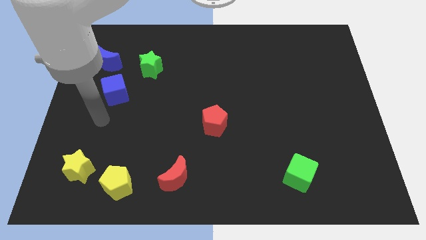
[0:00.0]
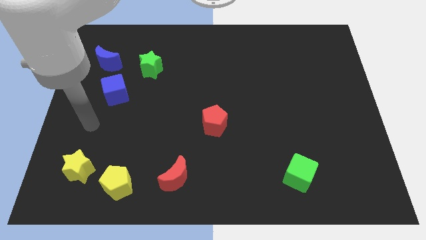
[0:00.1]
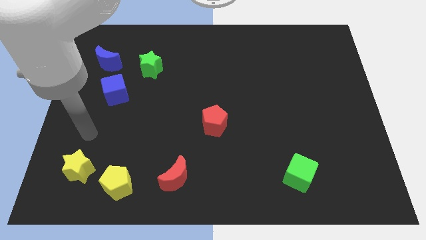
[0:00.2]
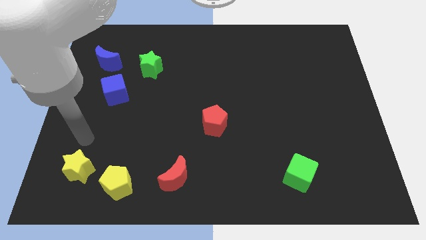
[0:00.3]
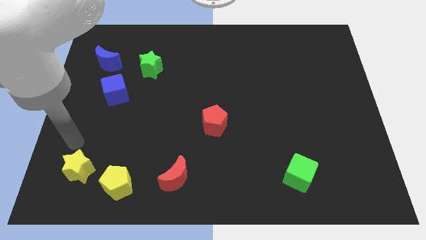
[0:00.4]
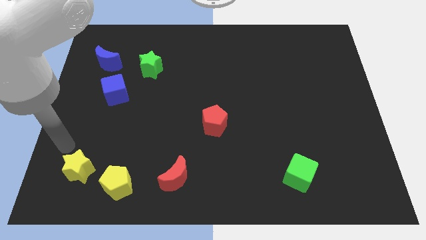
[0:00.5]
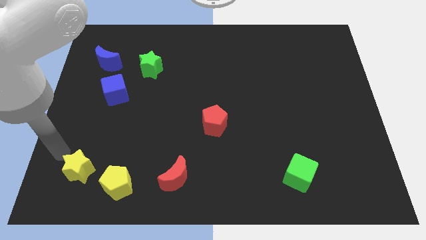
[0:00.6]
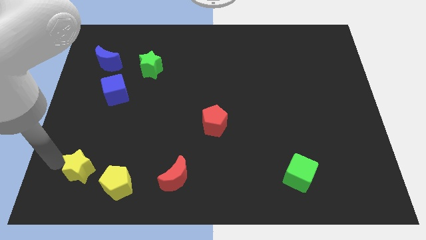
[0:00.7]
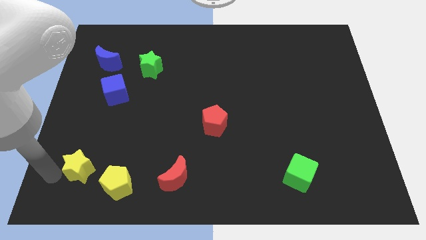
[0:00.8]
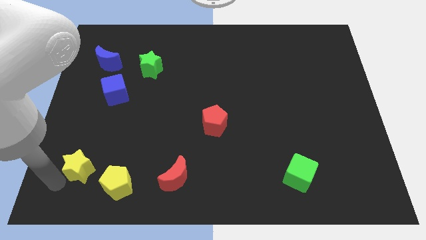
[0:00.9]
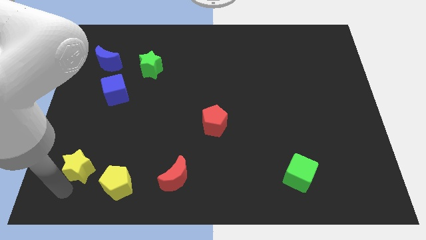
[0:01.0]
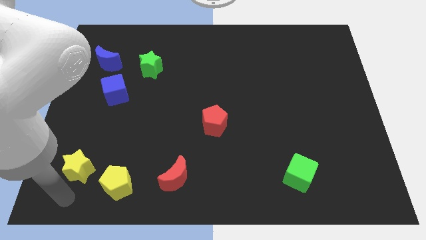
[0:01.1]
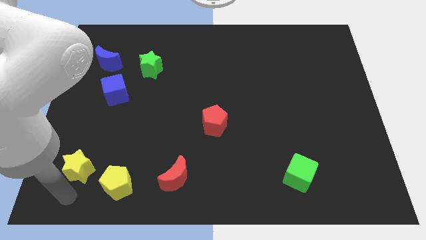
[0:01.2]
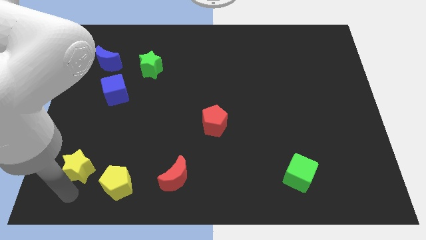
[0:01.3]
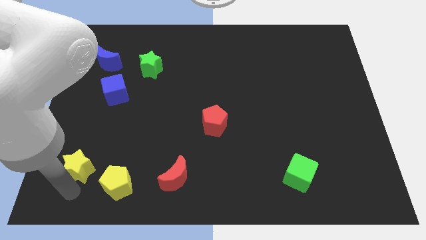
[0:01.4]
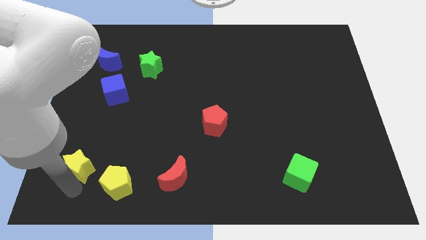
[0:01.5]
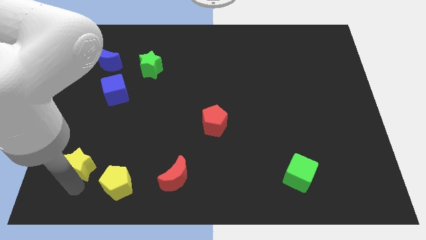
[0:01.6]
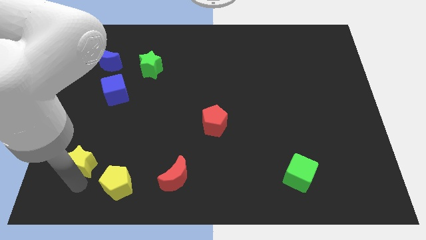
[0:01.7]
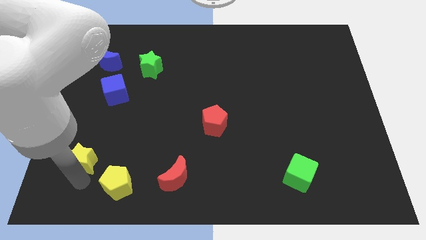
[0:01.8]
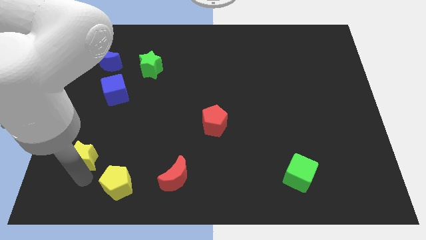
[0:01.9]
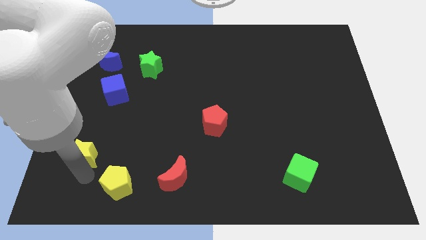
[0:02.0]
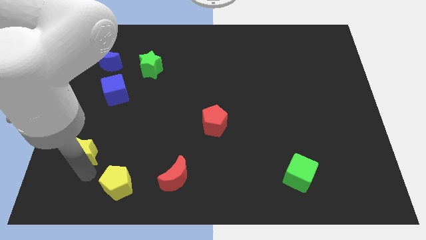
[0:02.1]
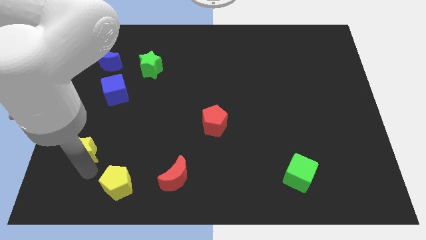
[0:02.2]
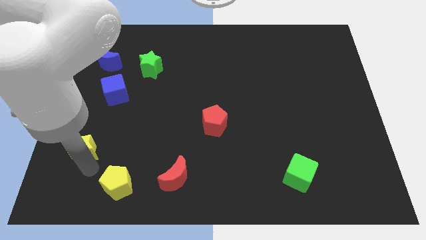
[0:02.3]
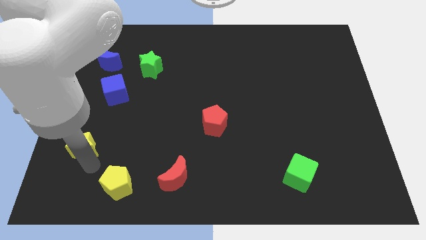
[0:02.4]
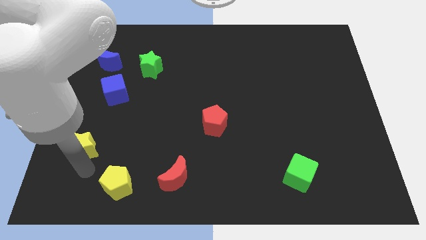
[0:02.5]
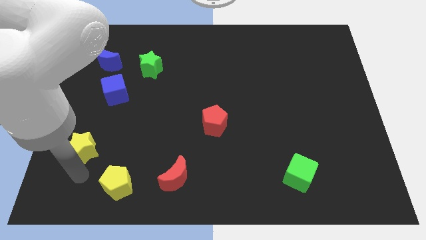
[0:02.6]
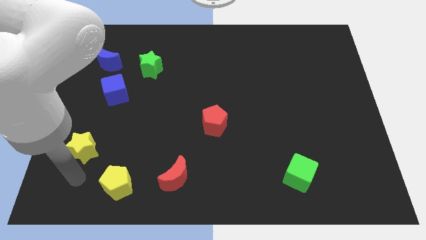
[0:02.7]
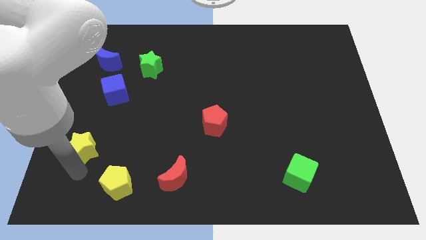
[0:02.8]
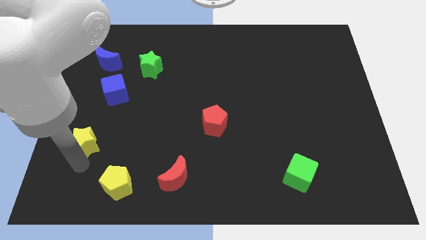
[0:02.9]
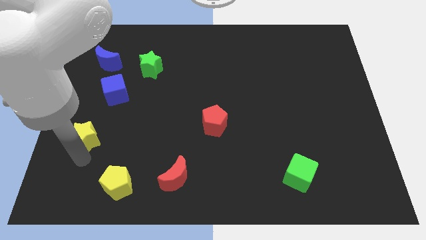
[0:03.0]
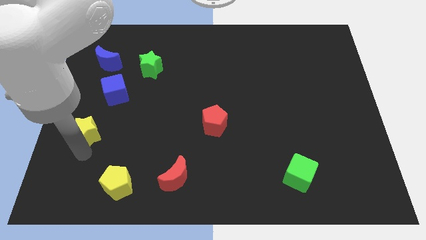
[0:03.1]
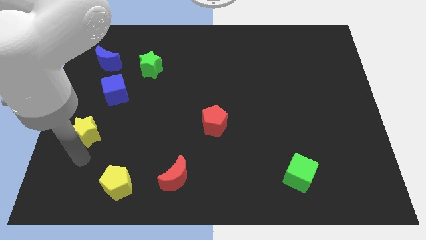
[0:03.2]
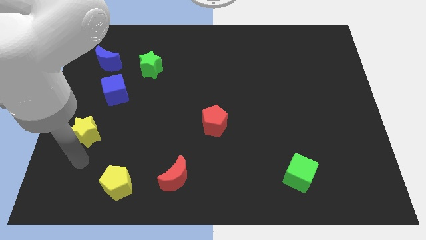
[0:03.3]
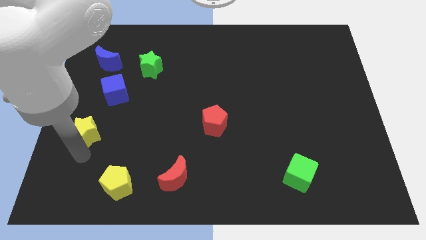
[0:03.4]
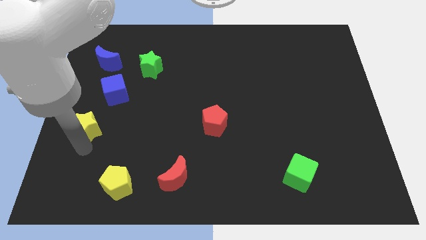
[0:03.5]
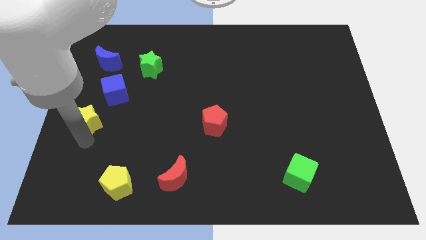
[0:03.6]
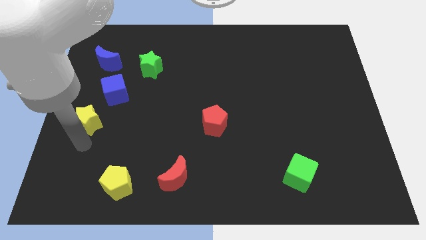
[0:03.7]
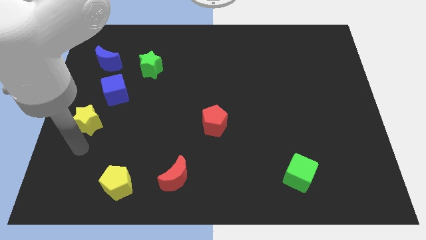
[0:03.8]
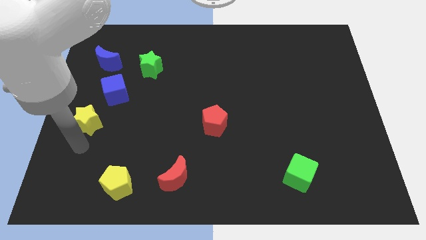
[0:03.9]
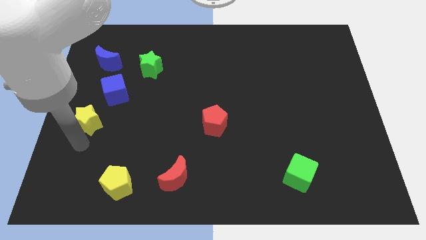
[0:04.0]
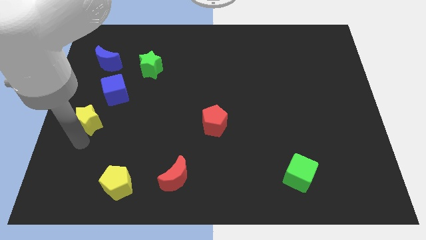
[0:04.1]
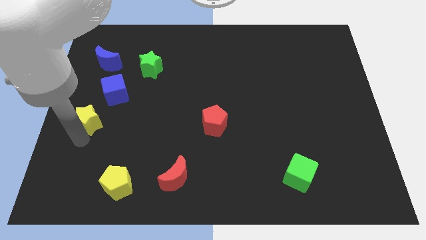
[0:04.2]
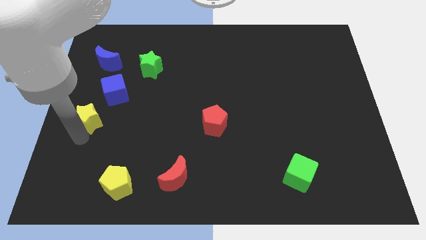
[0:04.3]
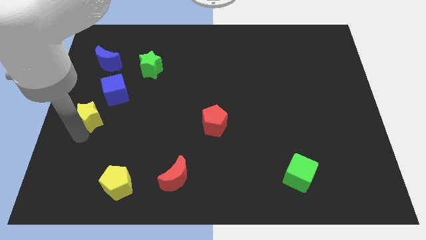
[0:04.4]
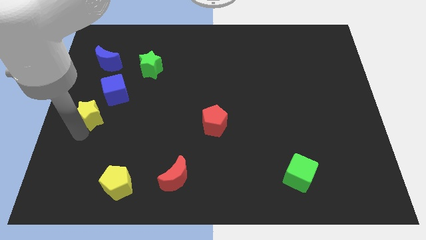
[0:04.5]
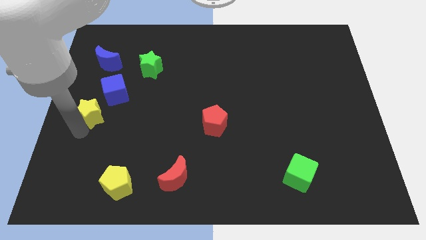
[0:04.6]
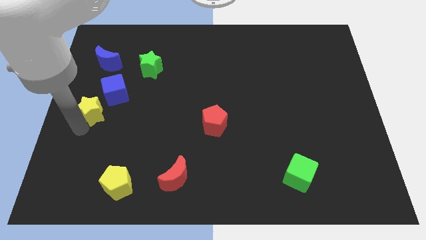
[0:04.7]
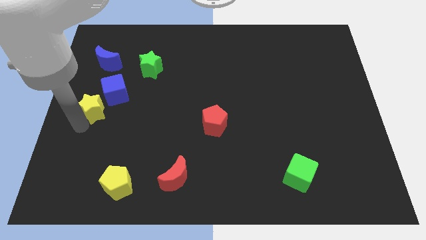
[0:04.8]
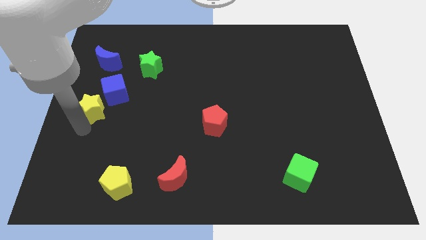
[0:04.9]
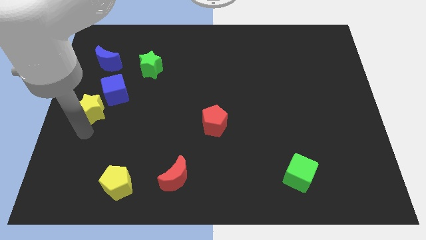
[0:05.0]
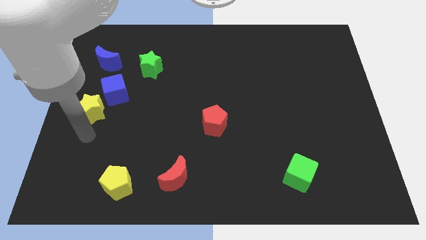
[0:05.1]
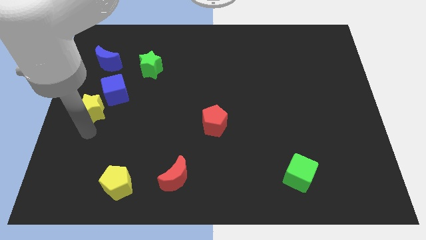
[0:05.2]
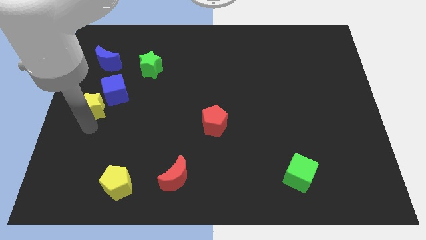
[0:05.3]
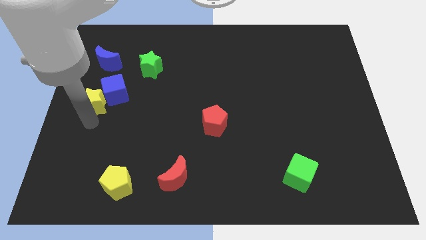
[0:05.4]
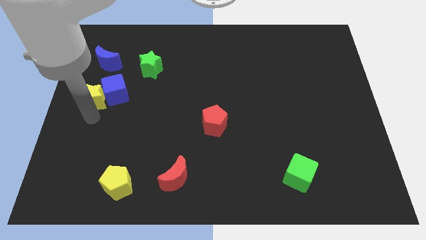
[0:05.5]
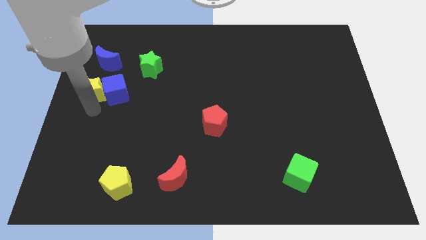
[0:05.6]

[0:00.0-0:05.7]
push the yellow star to the top left side of the blue cube

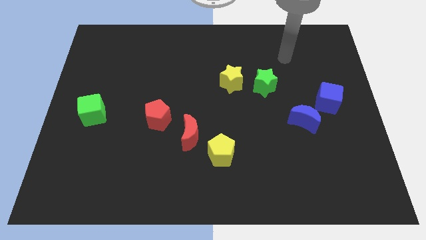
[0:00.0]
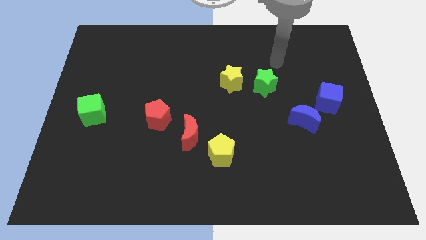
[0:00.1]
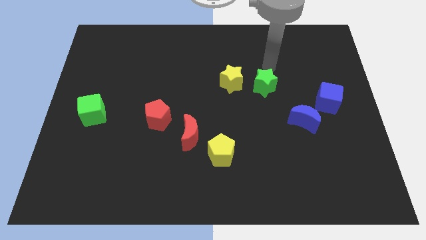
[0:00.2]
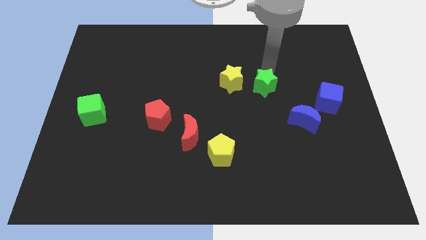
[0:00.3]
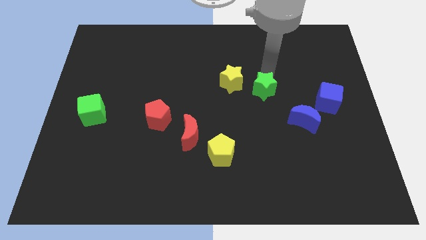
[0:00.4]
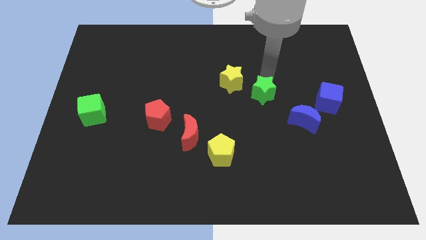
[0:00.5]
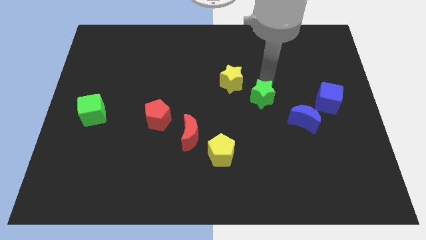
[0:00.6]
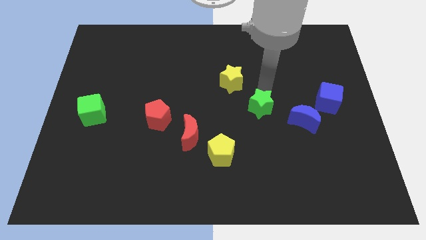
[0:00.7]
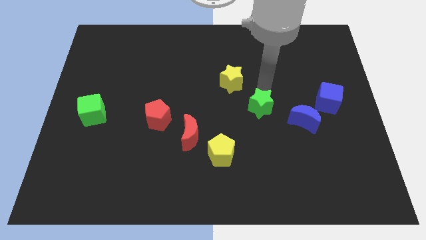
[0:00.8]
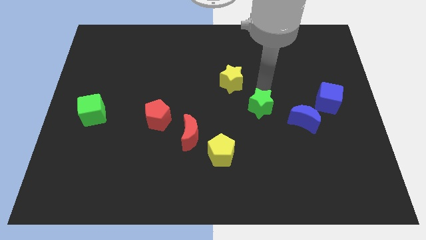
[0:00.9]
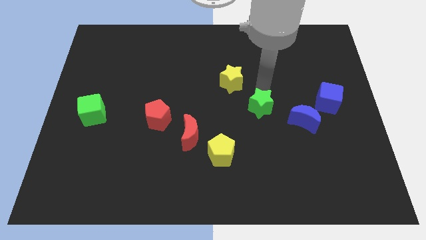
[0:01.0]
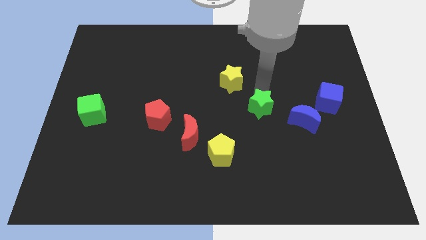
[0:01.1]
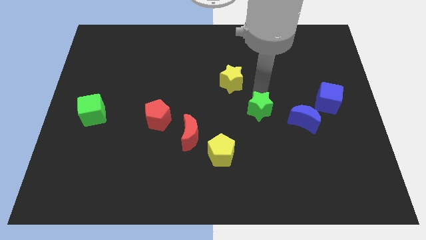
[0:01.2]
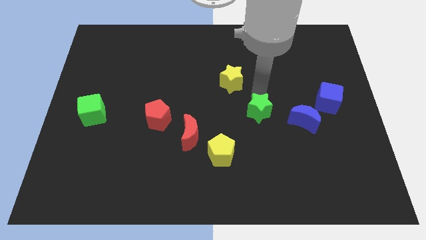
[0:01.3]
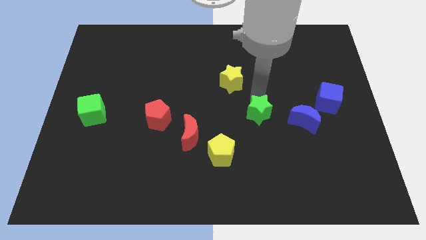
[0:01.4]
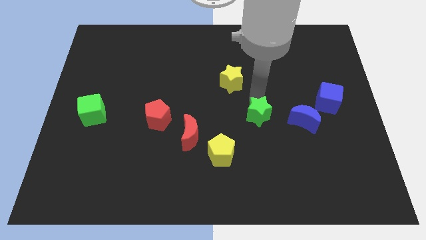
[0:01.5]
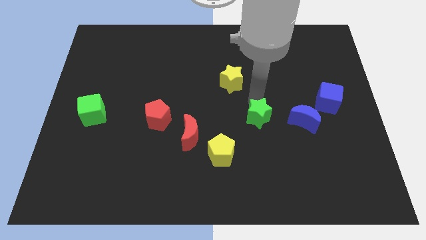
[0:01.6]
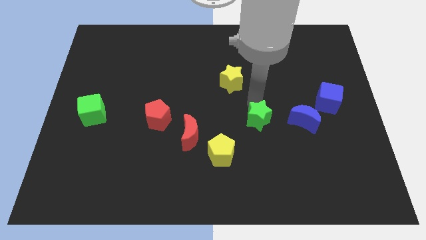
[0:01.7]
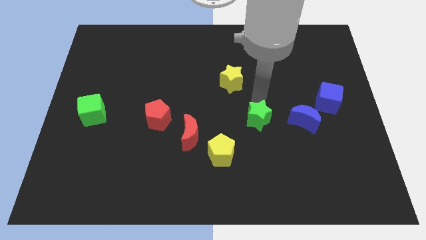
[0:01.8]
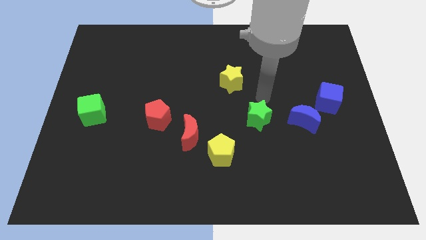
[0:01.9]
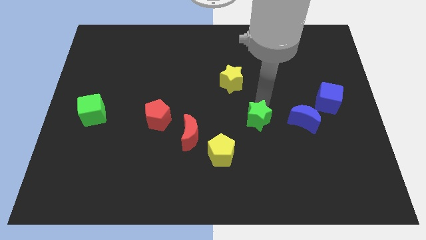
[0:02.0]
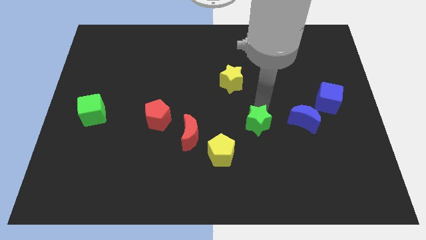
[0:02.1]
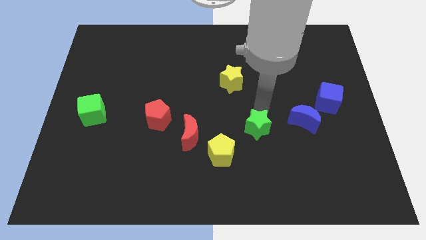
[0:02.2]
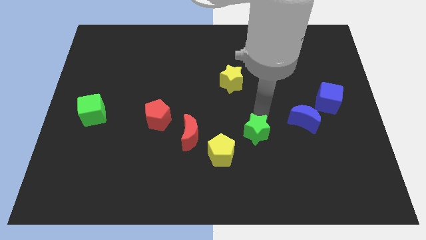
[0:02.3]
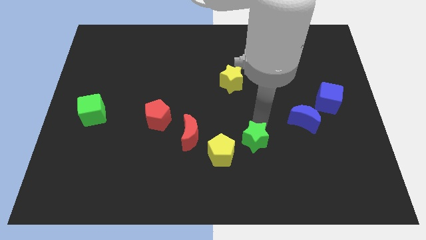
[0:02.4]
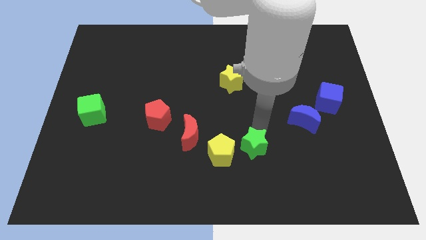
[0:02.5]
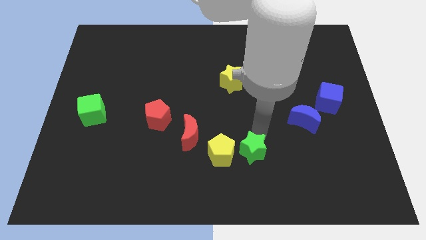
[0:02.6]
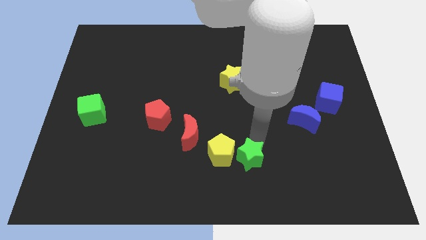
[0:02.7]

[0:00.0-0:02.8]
move the green star to the bottom right side of the yellow pentagon
